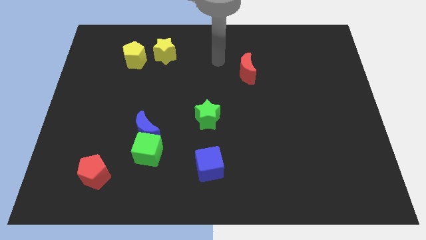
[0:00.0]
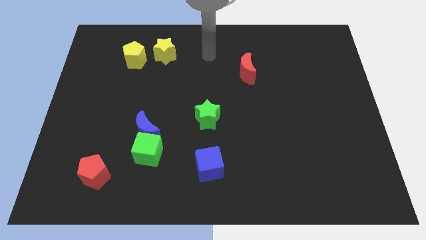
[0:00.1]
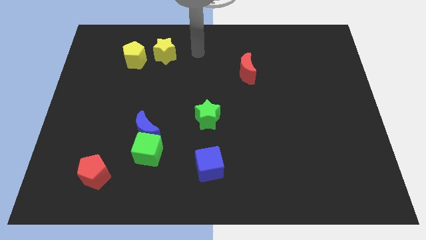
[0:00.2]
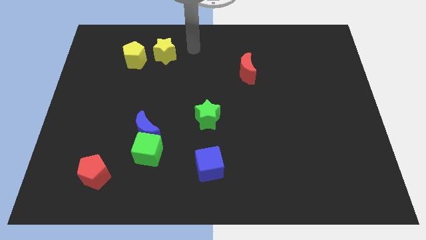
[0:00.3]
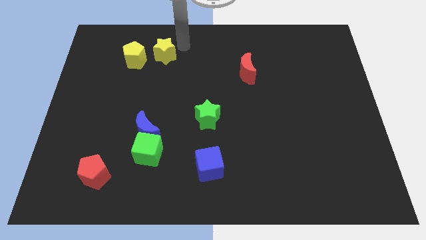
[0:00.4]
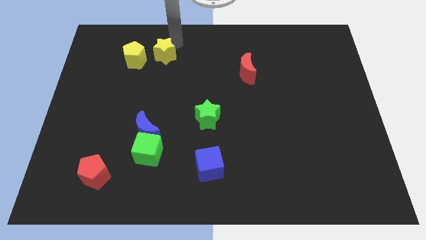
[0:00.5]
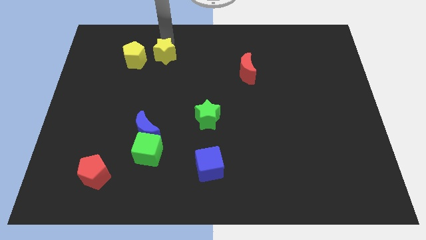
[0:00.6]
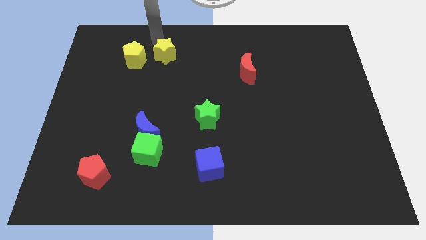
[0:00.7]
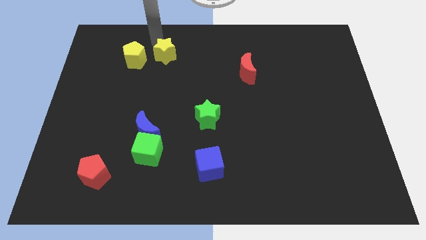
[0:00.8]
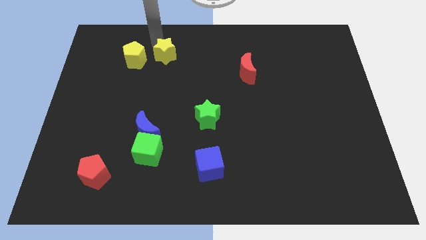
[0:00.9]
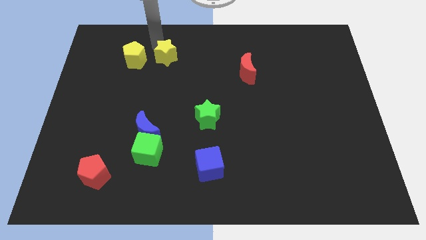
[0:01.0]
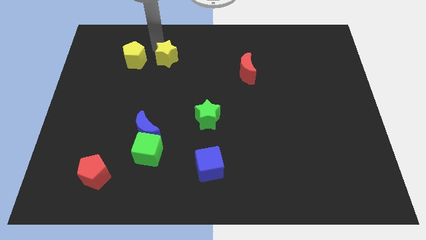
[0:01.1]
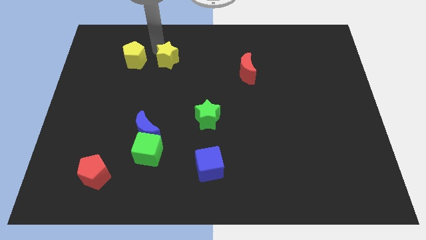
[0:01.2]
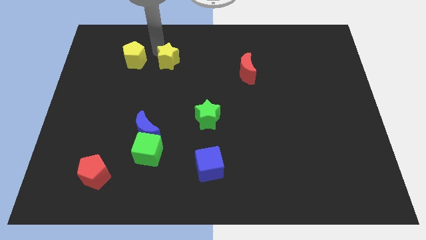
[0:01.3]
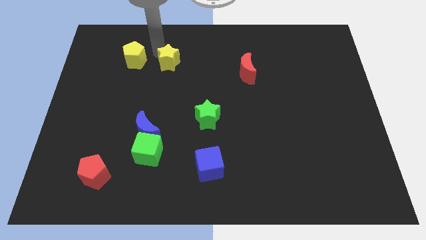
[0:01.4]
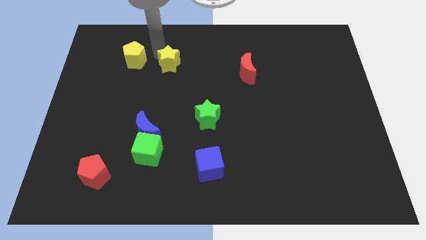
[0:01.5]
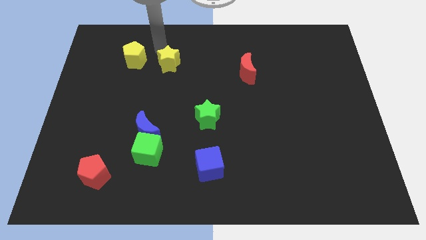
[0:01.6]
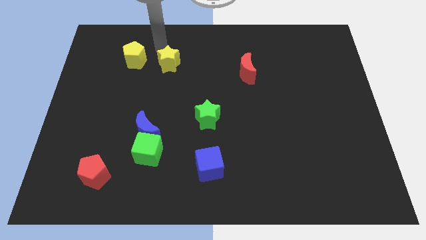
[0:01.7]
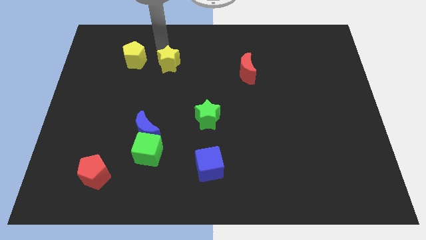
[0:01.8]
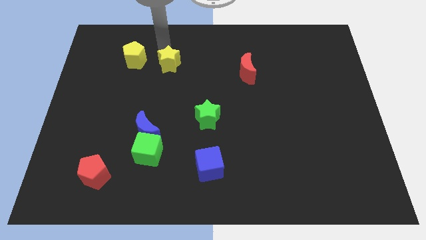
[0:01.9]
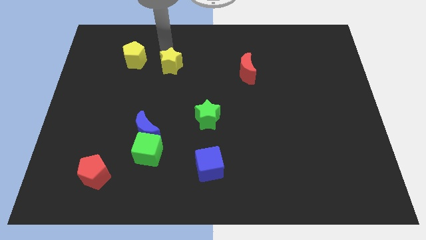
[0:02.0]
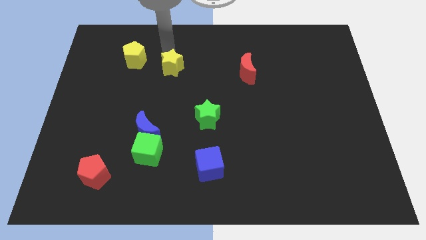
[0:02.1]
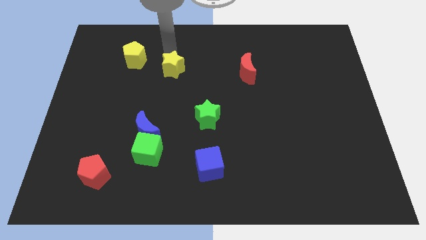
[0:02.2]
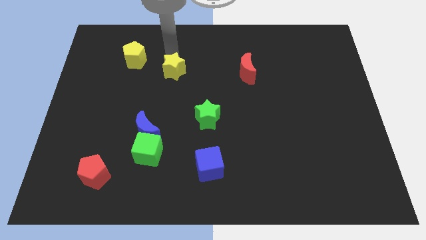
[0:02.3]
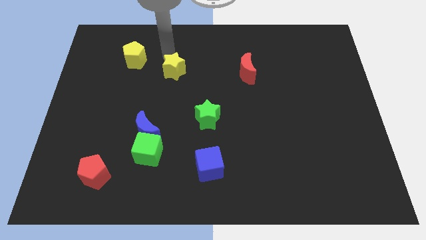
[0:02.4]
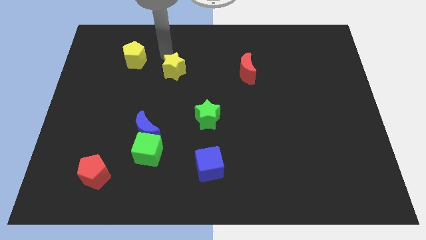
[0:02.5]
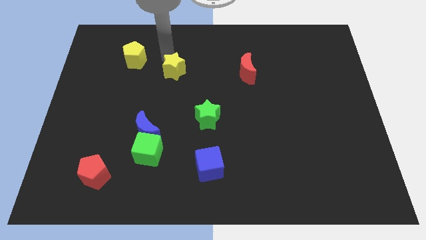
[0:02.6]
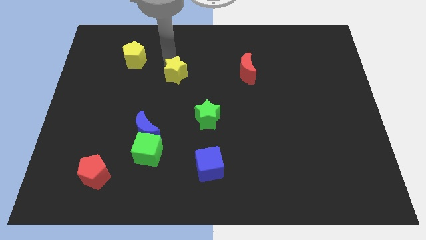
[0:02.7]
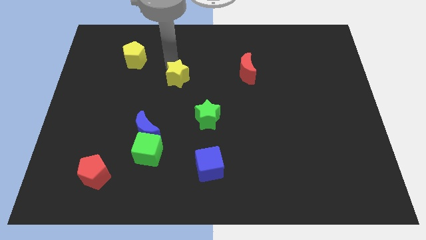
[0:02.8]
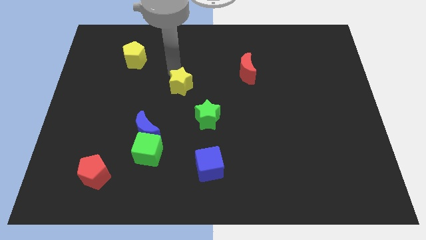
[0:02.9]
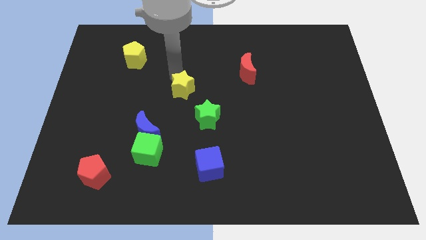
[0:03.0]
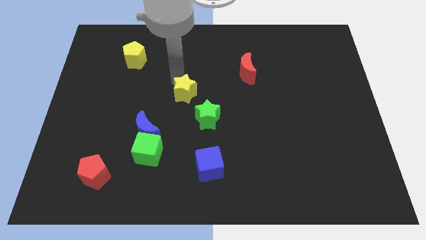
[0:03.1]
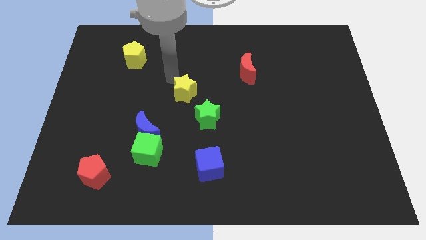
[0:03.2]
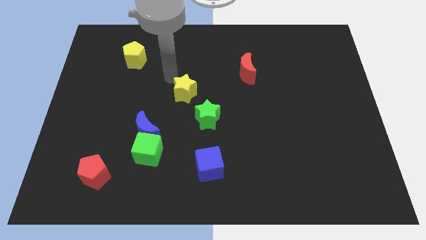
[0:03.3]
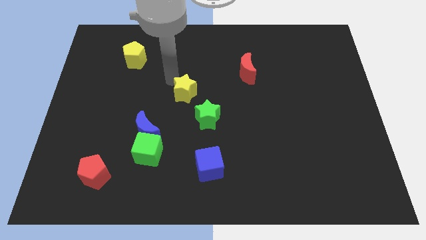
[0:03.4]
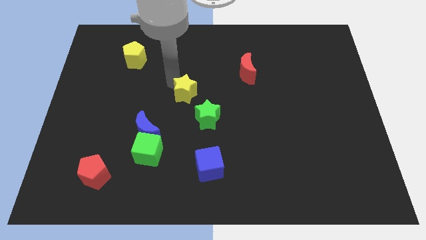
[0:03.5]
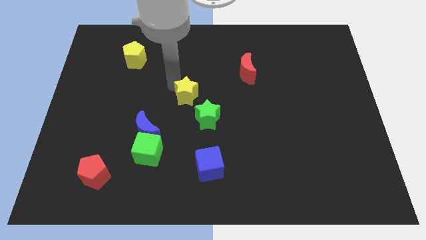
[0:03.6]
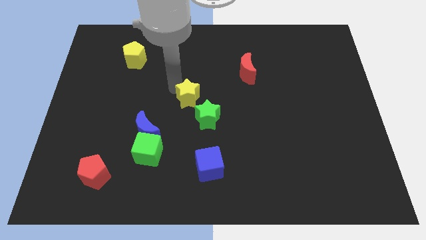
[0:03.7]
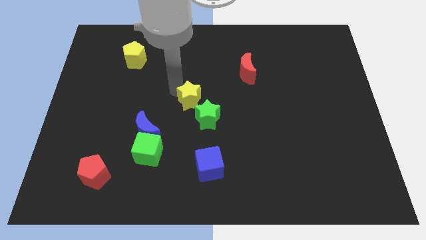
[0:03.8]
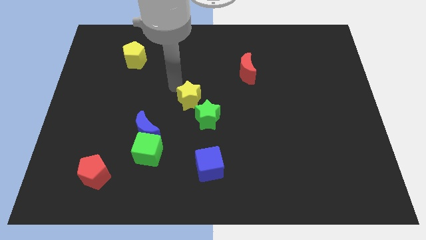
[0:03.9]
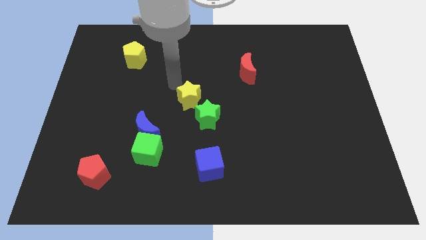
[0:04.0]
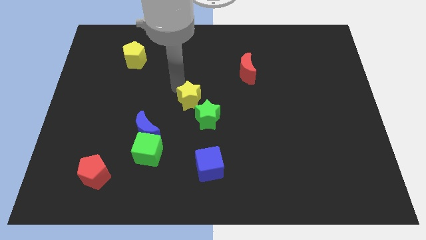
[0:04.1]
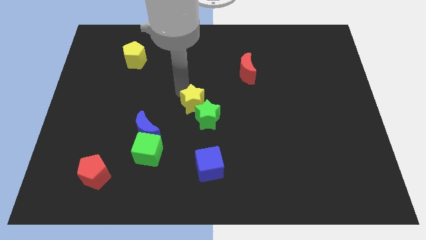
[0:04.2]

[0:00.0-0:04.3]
move the yellow star towards the green star

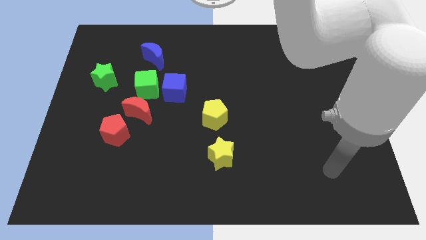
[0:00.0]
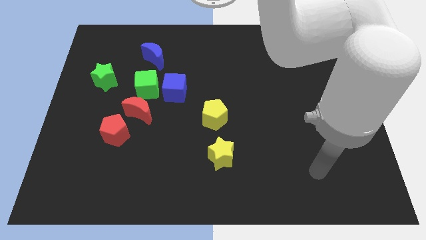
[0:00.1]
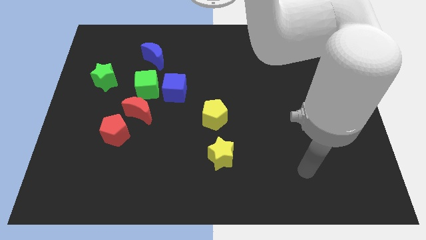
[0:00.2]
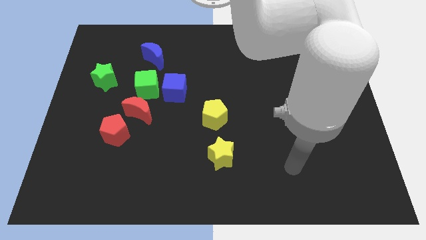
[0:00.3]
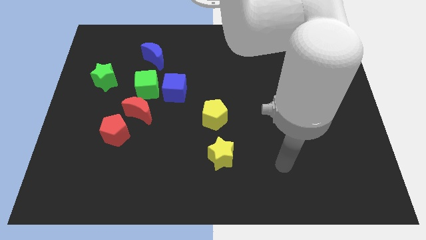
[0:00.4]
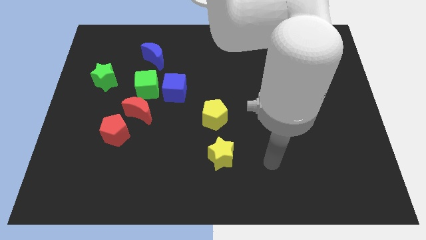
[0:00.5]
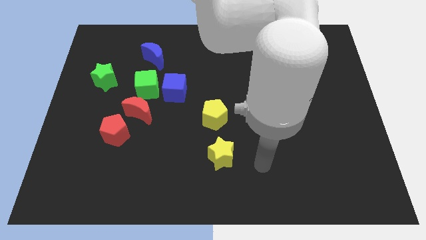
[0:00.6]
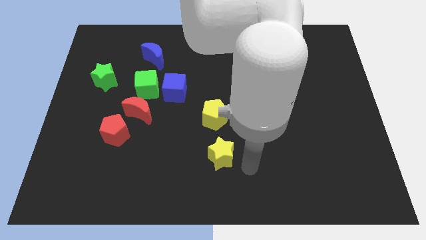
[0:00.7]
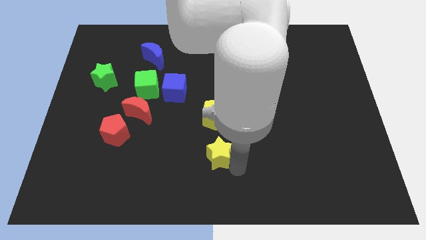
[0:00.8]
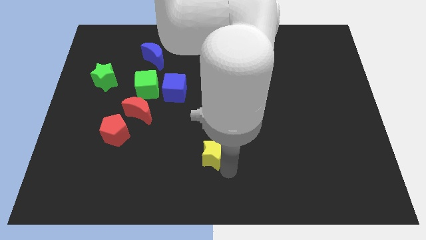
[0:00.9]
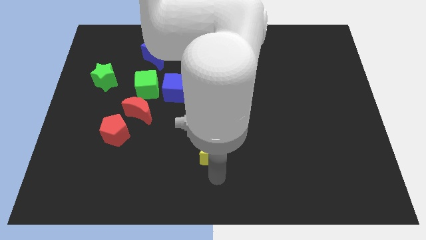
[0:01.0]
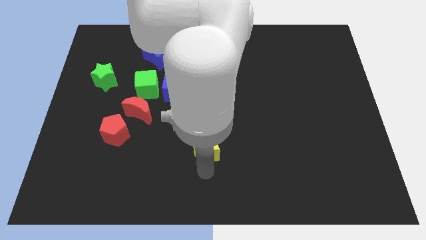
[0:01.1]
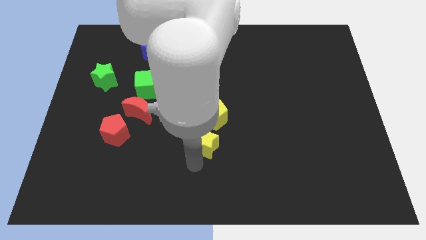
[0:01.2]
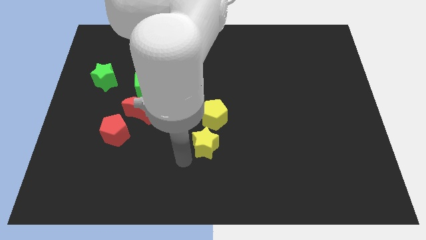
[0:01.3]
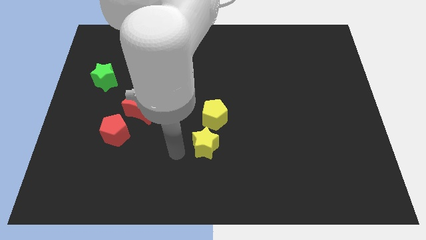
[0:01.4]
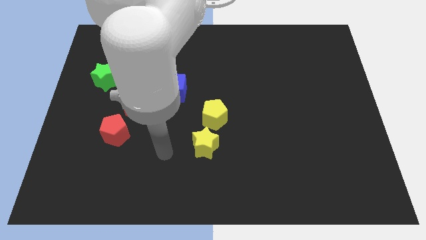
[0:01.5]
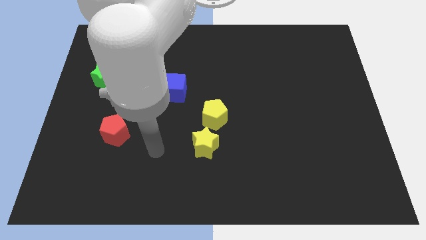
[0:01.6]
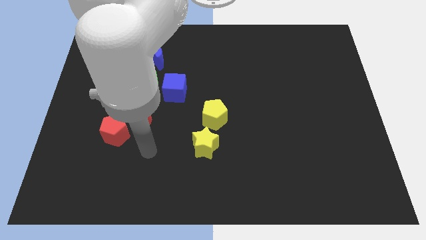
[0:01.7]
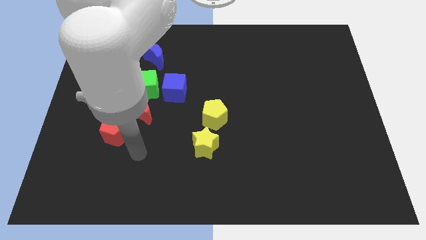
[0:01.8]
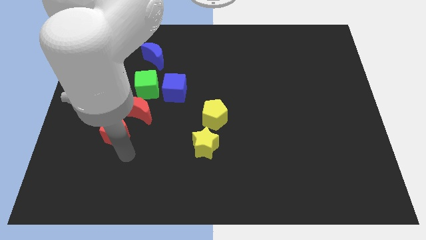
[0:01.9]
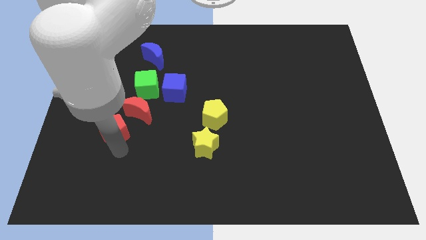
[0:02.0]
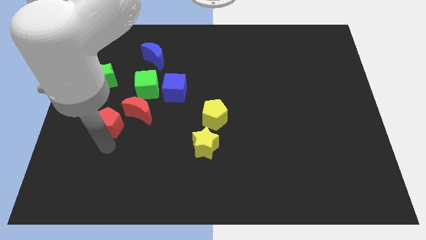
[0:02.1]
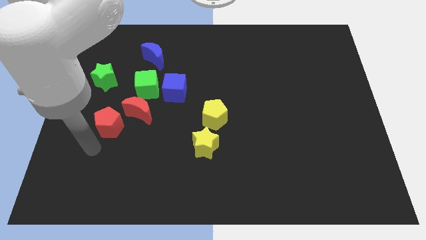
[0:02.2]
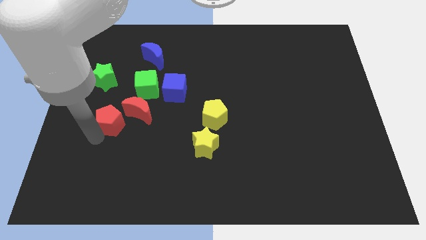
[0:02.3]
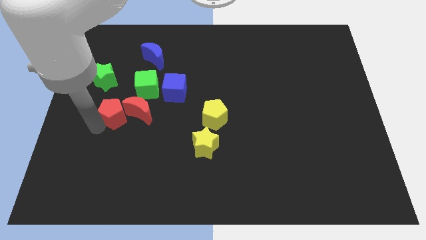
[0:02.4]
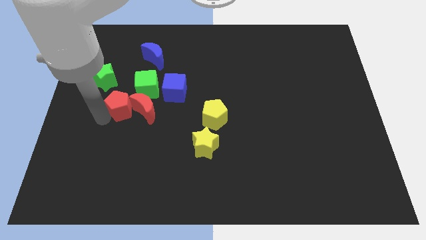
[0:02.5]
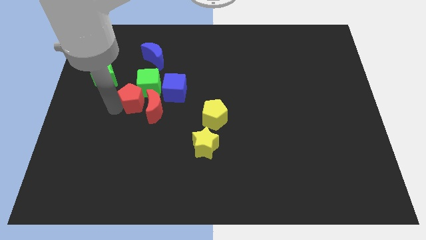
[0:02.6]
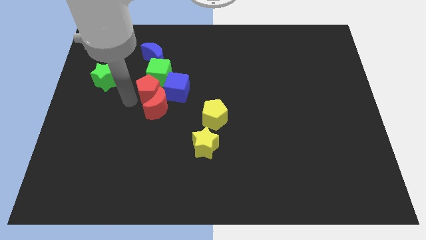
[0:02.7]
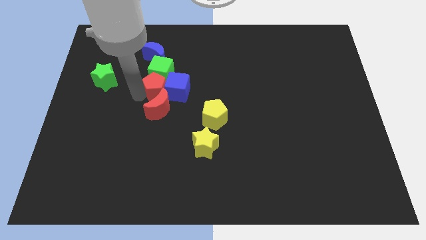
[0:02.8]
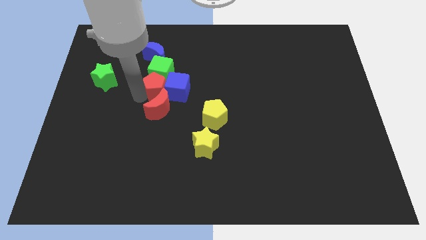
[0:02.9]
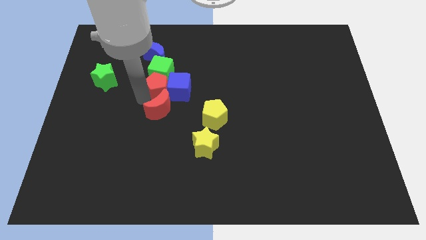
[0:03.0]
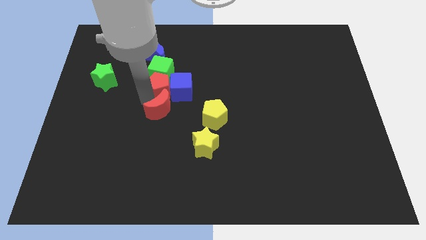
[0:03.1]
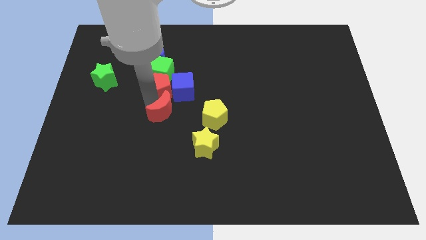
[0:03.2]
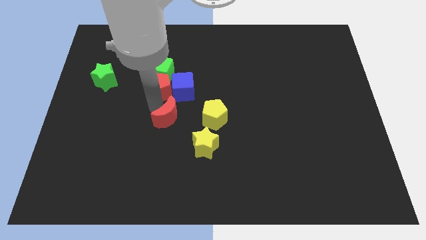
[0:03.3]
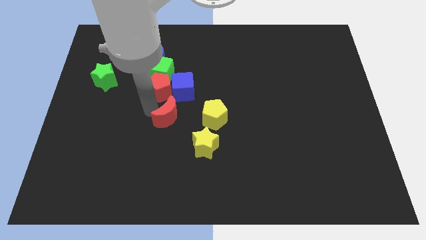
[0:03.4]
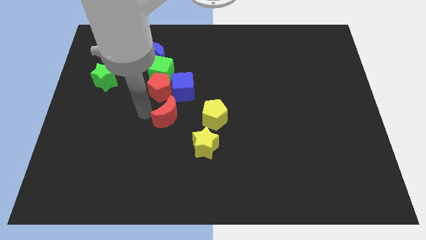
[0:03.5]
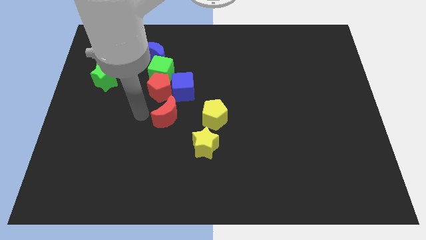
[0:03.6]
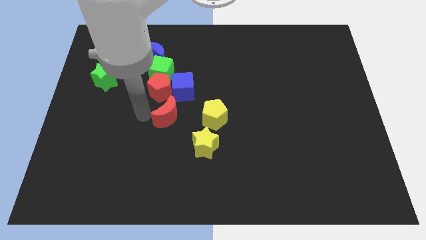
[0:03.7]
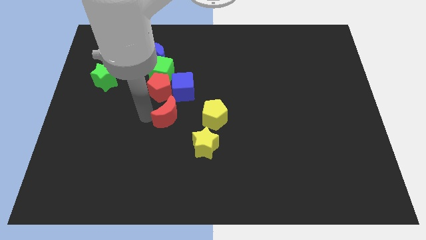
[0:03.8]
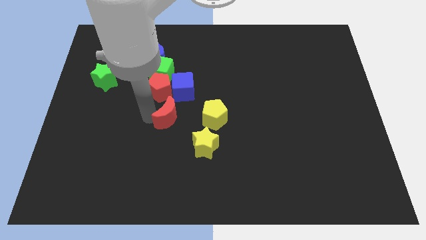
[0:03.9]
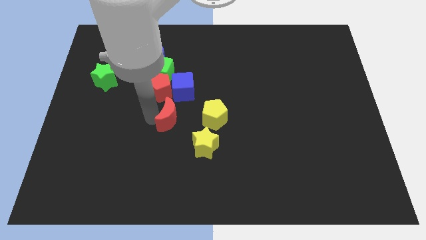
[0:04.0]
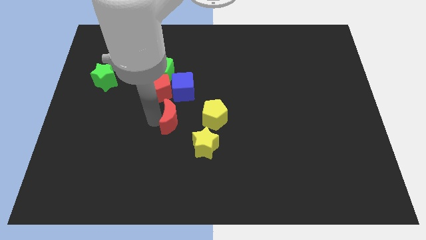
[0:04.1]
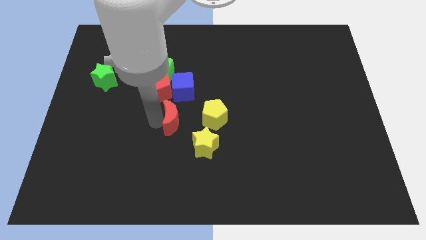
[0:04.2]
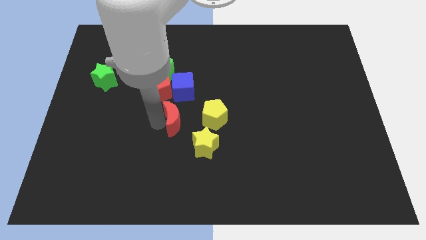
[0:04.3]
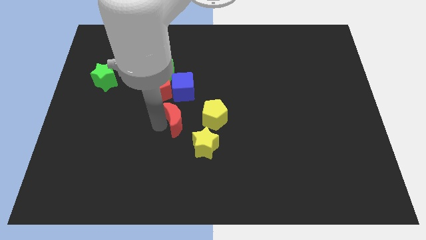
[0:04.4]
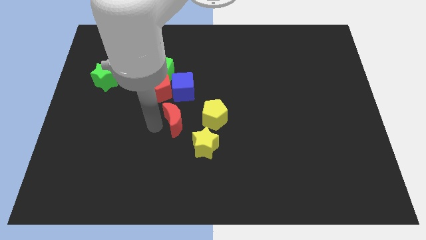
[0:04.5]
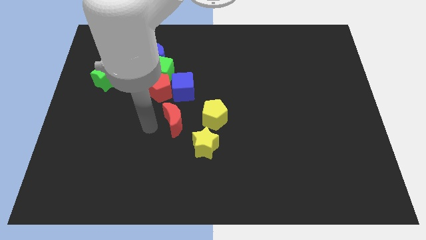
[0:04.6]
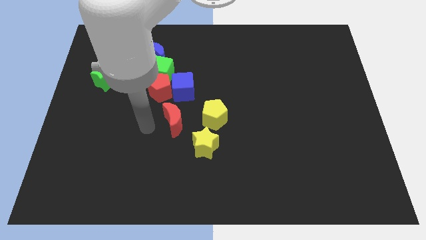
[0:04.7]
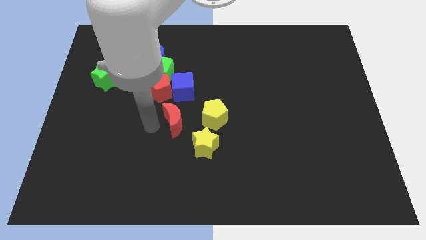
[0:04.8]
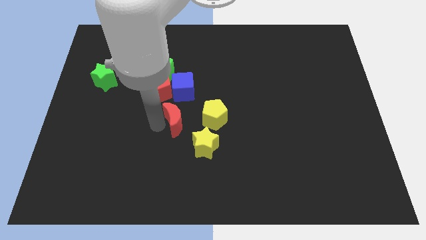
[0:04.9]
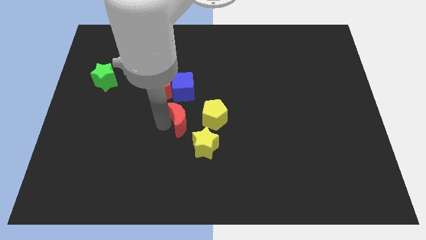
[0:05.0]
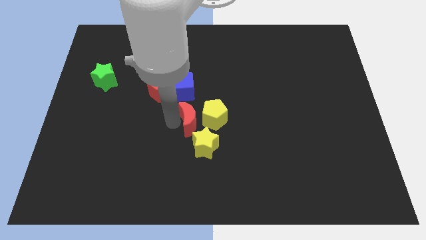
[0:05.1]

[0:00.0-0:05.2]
push the red moon close to the yellow pentagon
